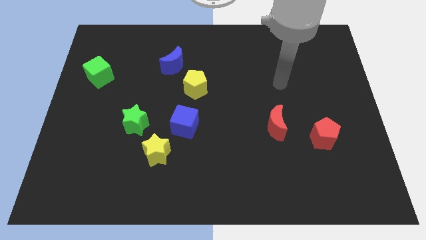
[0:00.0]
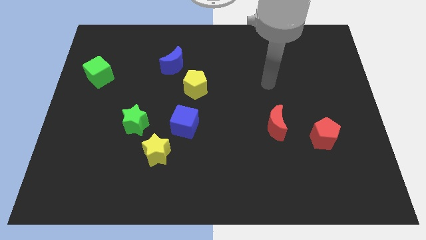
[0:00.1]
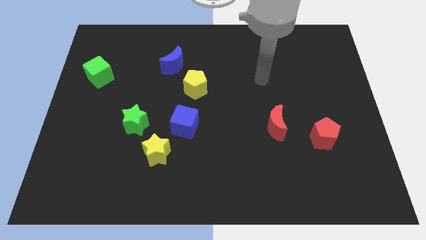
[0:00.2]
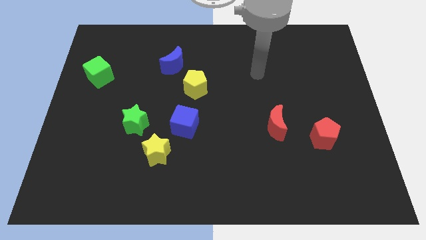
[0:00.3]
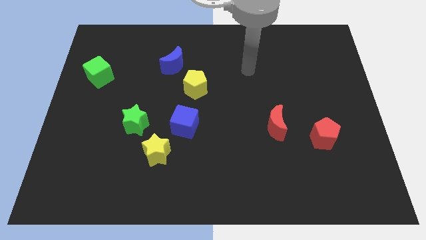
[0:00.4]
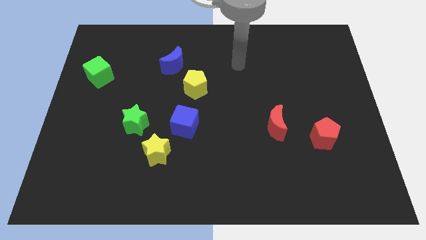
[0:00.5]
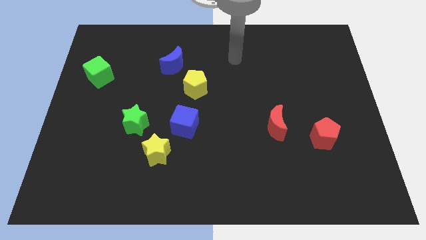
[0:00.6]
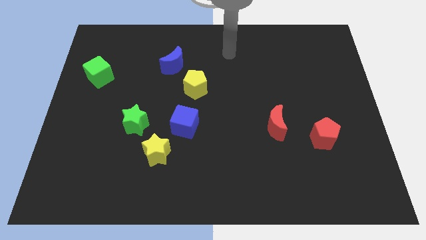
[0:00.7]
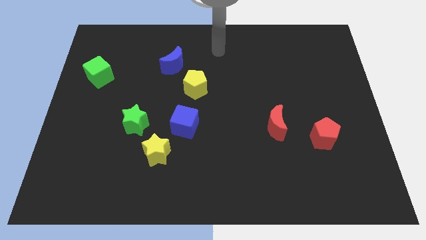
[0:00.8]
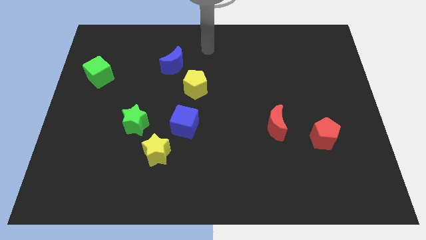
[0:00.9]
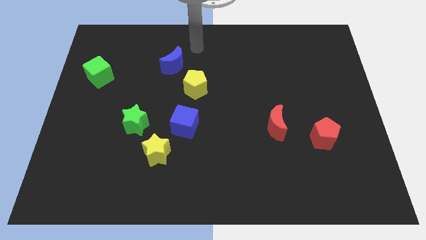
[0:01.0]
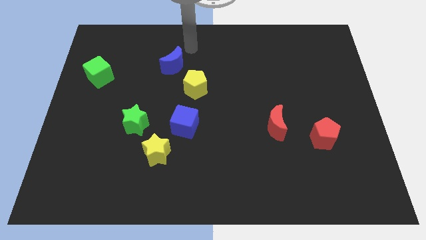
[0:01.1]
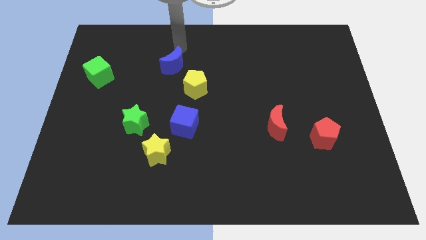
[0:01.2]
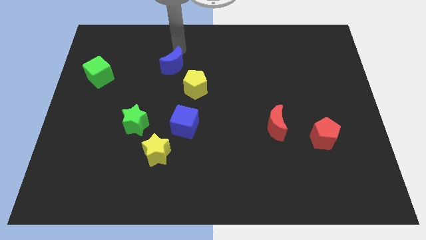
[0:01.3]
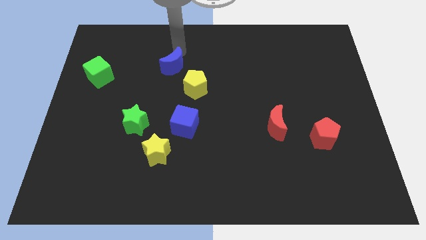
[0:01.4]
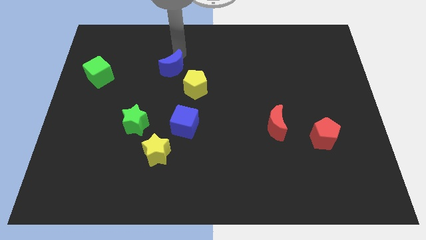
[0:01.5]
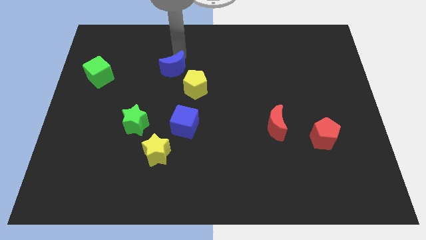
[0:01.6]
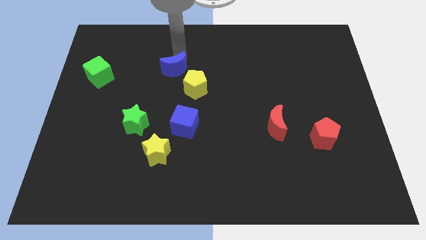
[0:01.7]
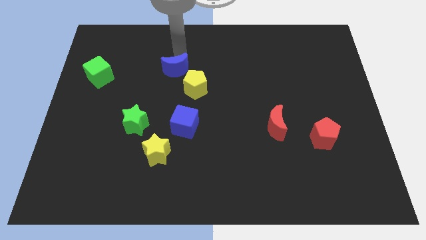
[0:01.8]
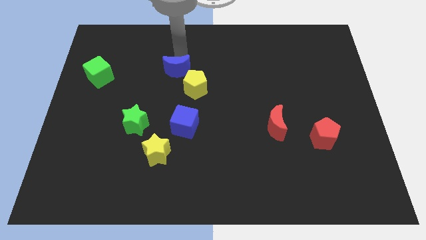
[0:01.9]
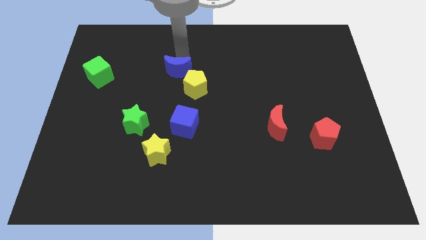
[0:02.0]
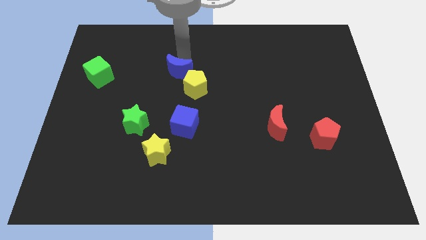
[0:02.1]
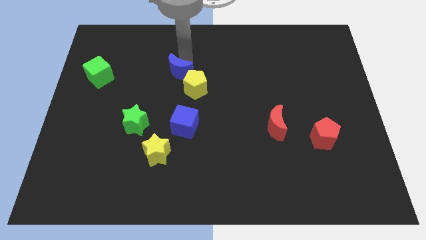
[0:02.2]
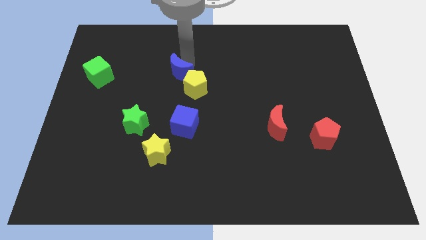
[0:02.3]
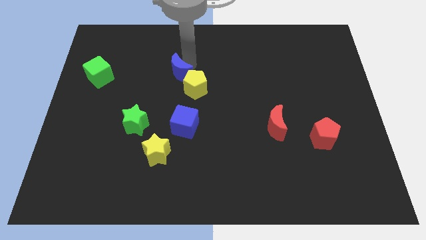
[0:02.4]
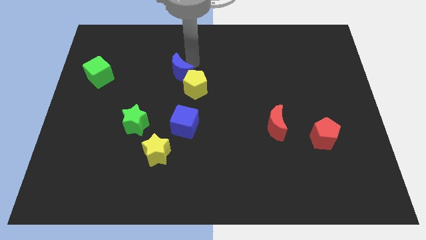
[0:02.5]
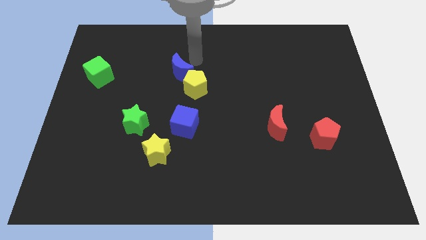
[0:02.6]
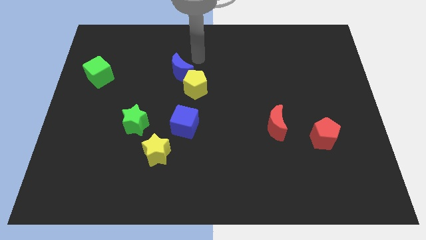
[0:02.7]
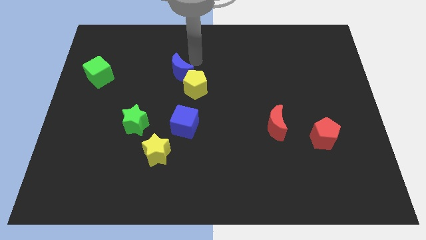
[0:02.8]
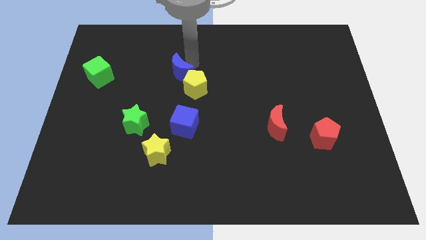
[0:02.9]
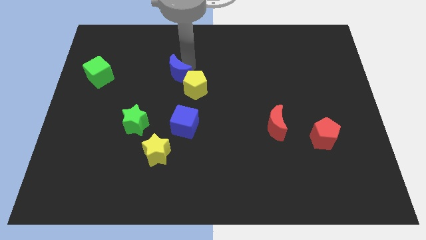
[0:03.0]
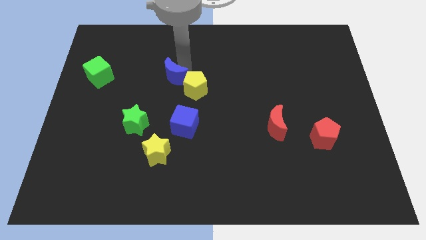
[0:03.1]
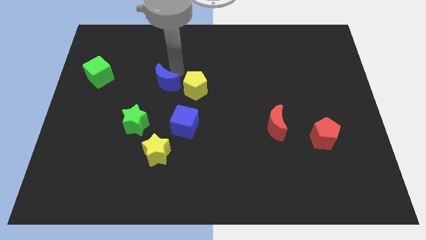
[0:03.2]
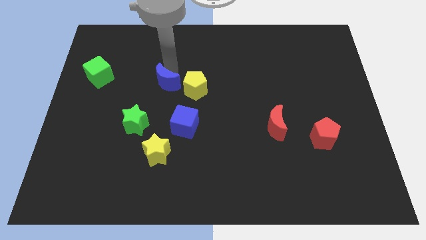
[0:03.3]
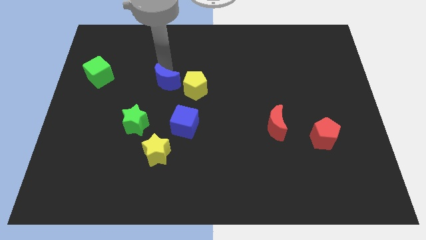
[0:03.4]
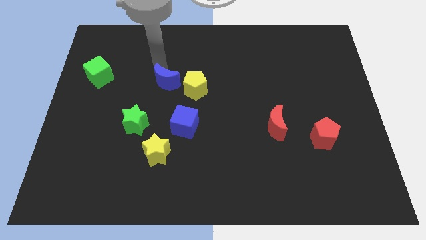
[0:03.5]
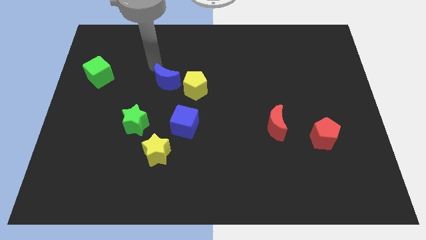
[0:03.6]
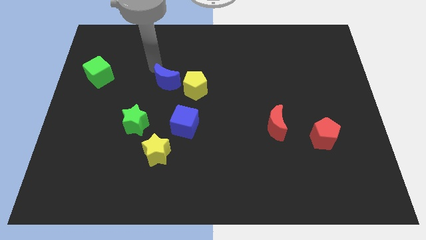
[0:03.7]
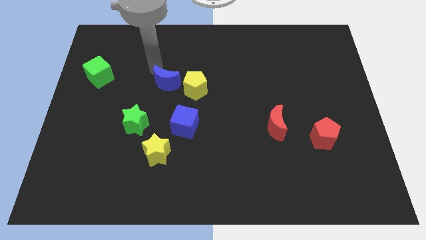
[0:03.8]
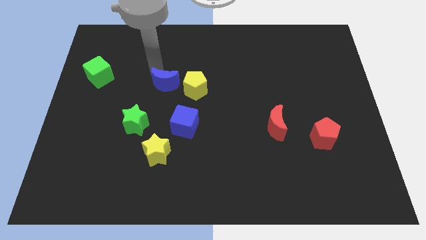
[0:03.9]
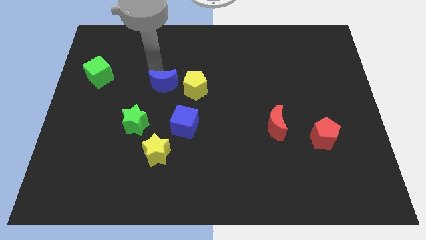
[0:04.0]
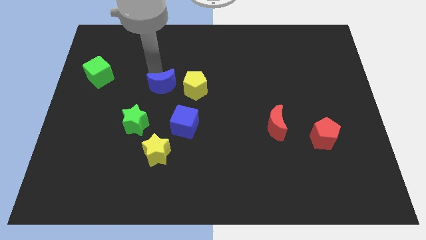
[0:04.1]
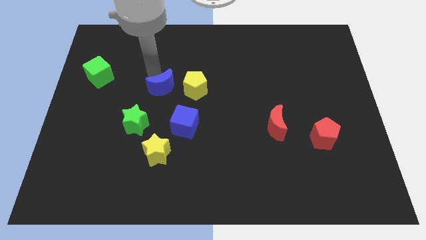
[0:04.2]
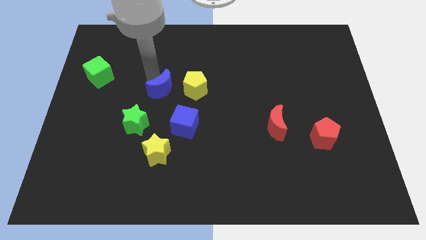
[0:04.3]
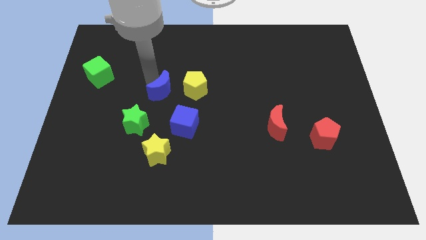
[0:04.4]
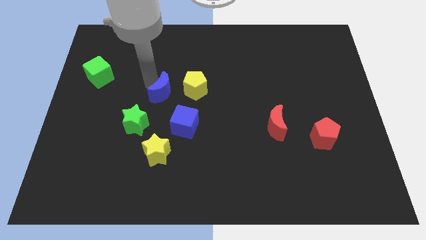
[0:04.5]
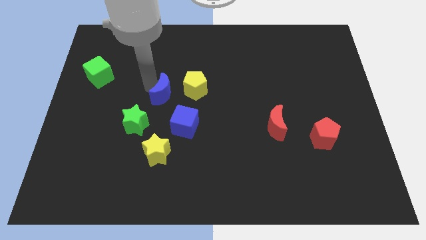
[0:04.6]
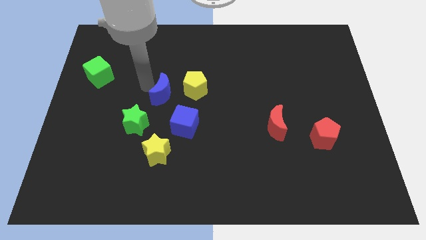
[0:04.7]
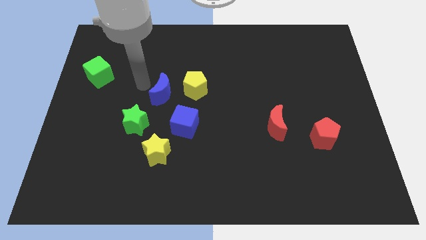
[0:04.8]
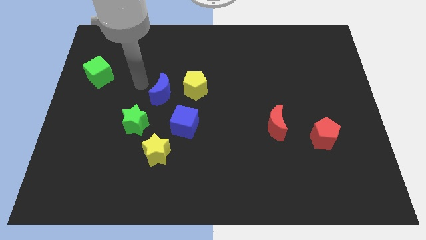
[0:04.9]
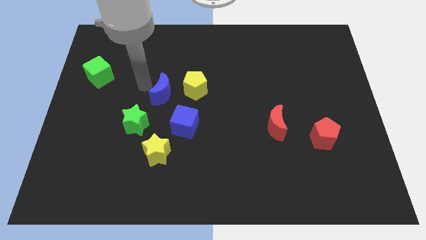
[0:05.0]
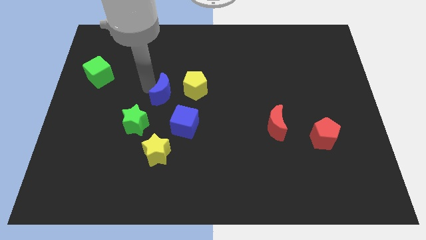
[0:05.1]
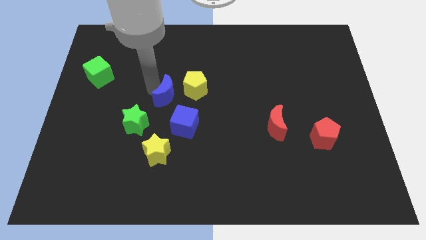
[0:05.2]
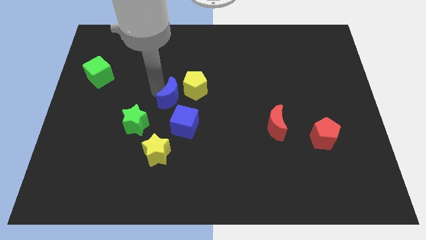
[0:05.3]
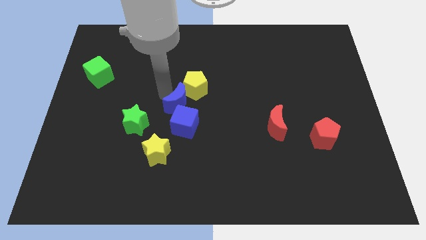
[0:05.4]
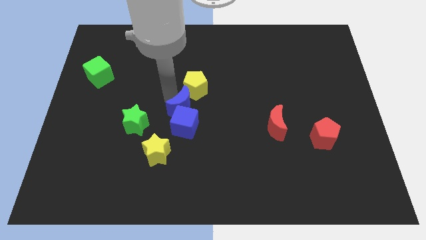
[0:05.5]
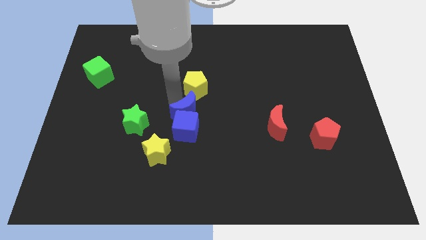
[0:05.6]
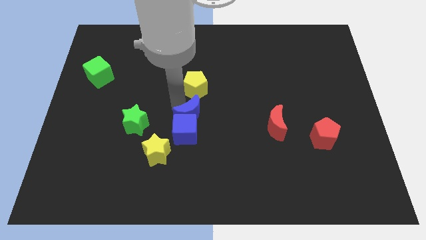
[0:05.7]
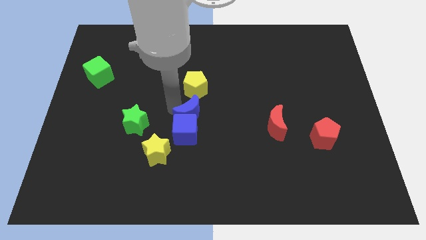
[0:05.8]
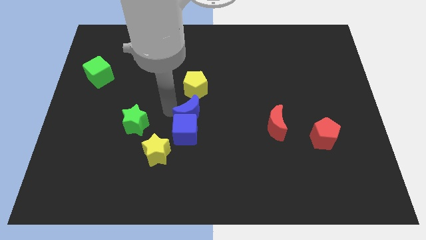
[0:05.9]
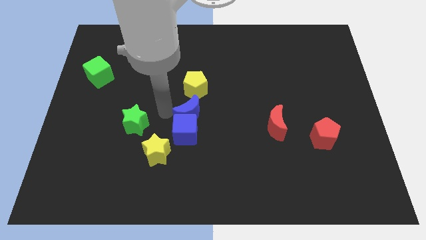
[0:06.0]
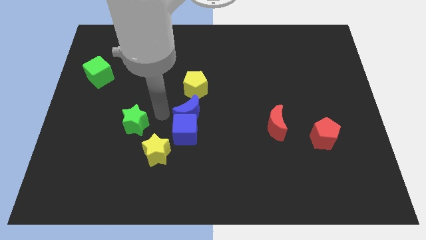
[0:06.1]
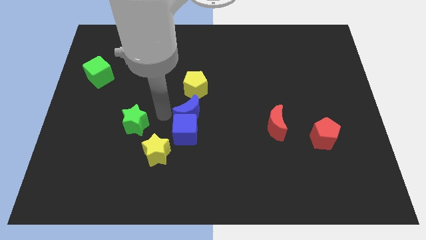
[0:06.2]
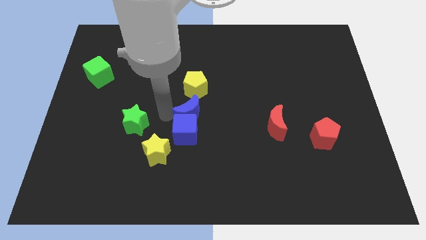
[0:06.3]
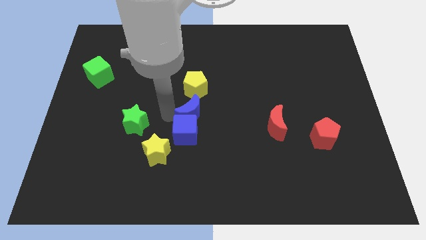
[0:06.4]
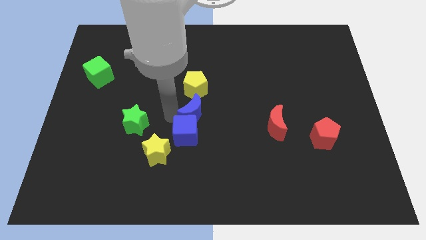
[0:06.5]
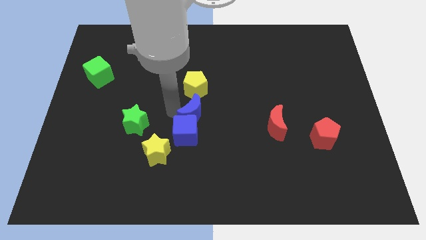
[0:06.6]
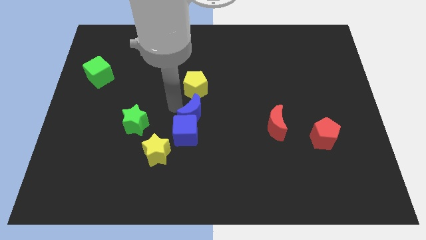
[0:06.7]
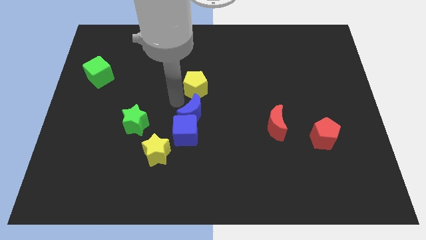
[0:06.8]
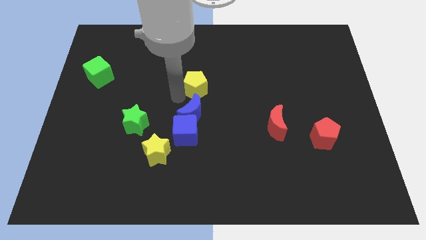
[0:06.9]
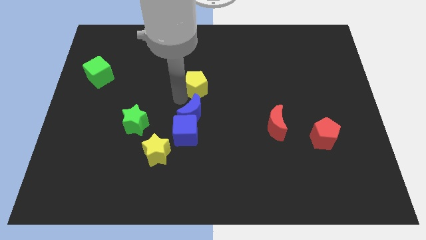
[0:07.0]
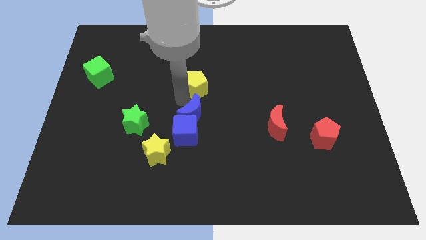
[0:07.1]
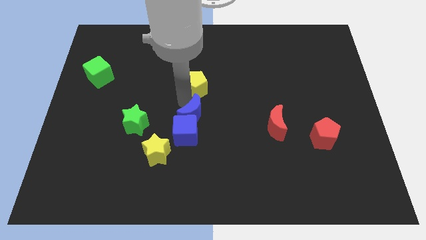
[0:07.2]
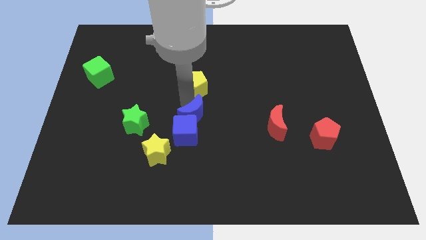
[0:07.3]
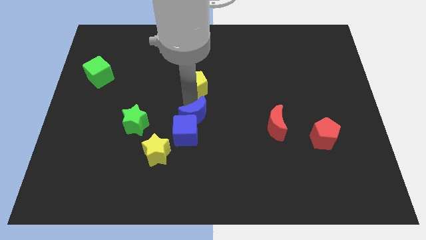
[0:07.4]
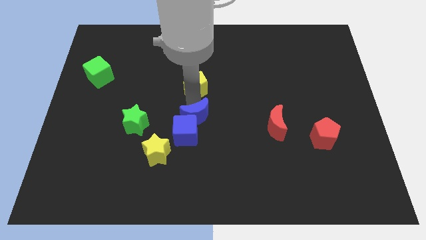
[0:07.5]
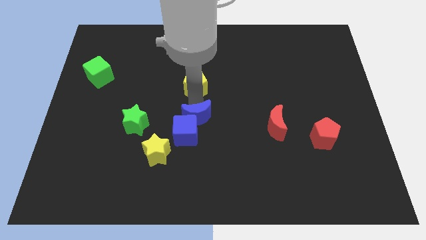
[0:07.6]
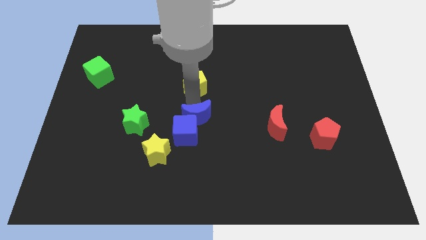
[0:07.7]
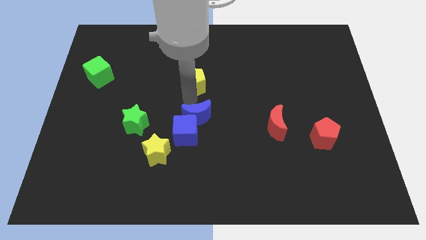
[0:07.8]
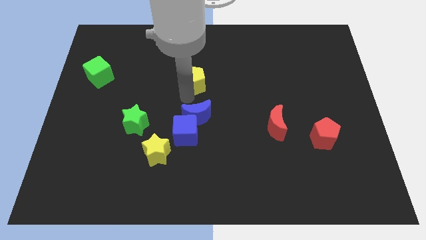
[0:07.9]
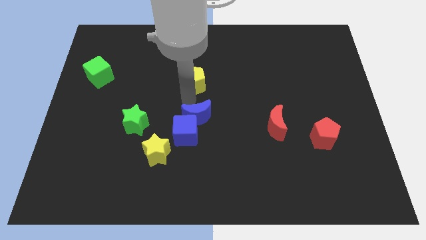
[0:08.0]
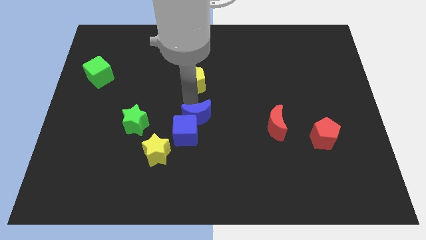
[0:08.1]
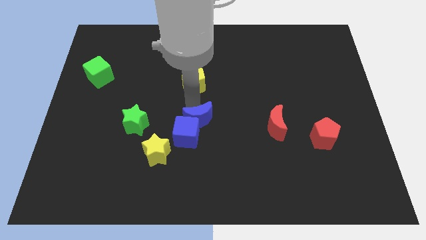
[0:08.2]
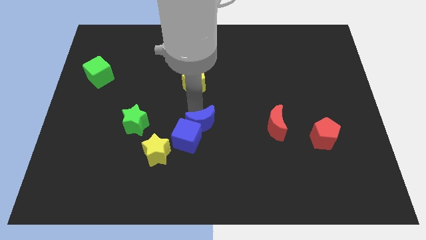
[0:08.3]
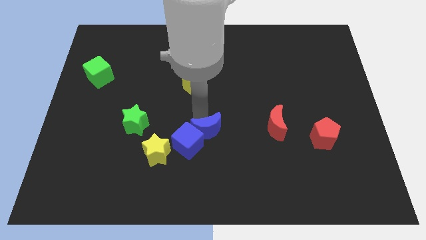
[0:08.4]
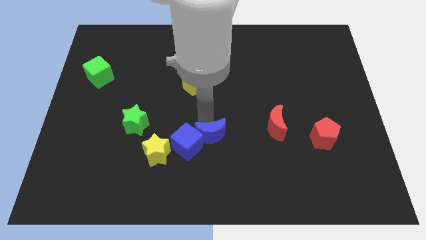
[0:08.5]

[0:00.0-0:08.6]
move the blue moon to the right side of the yellow star
